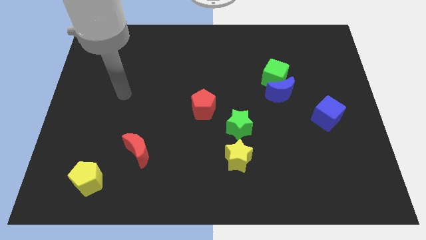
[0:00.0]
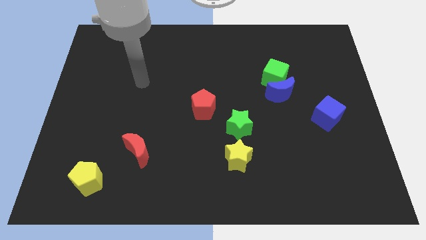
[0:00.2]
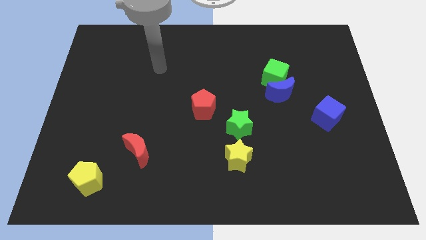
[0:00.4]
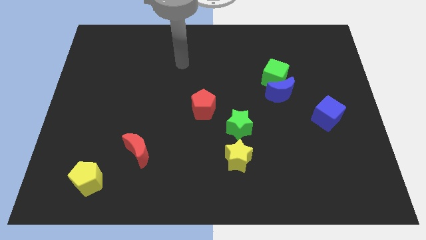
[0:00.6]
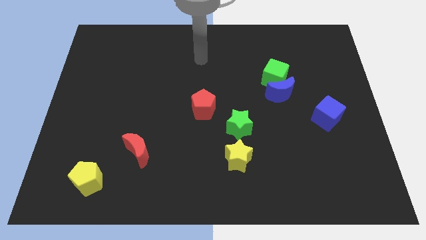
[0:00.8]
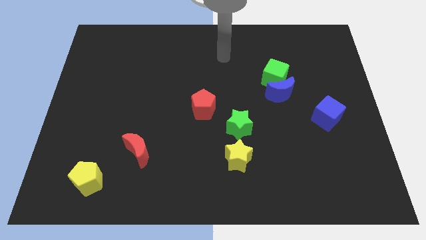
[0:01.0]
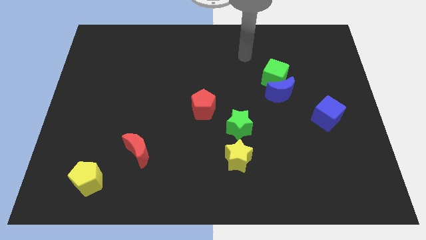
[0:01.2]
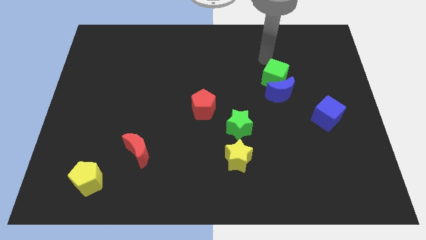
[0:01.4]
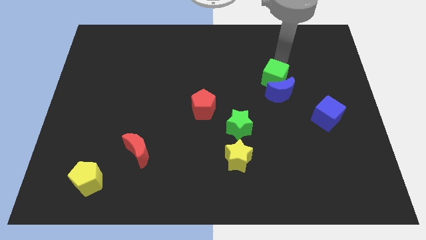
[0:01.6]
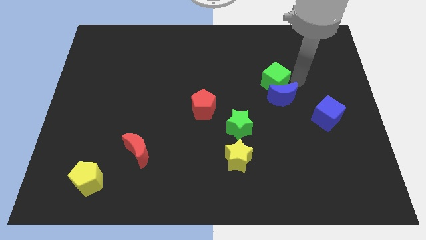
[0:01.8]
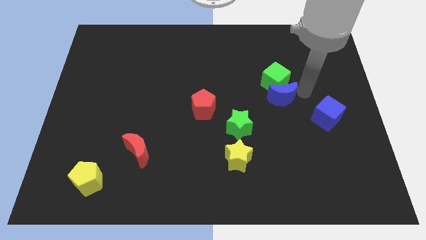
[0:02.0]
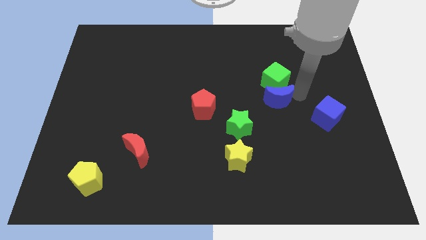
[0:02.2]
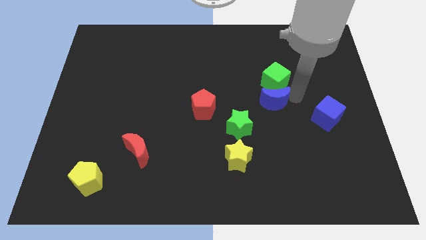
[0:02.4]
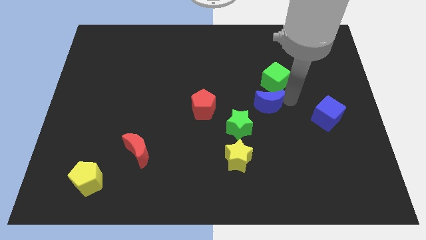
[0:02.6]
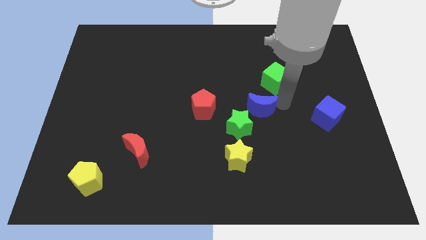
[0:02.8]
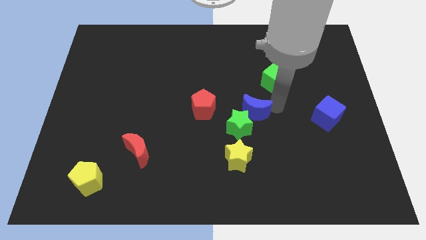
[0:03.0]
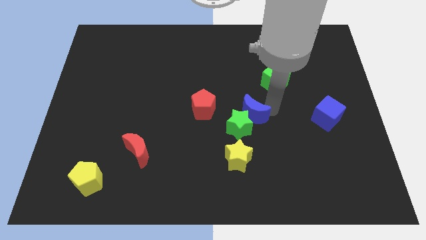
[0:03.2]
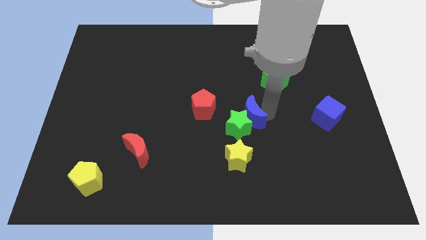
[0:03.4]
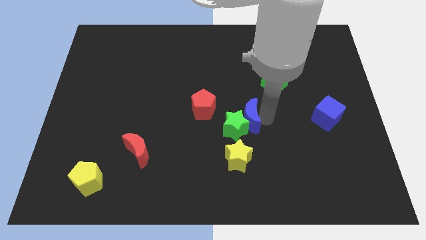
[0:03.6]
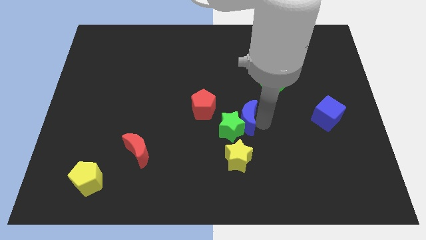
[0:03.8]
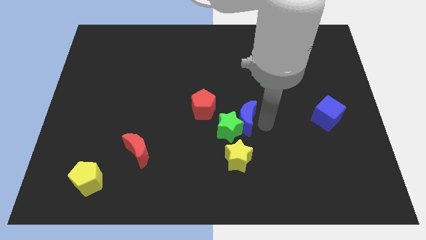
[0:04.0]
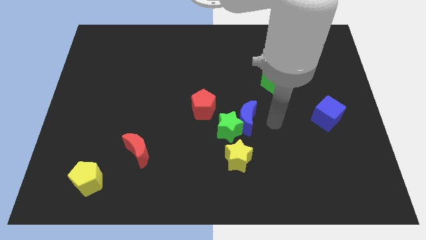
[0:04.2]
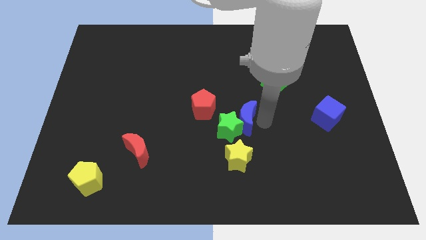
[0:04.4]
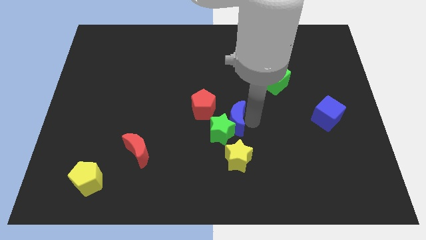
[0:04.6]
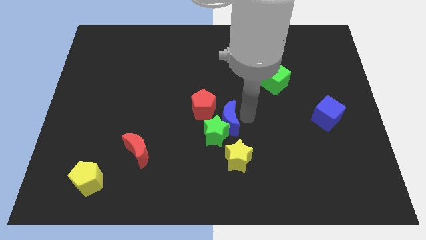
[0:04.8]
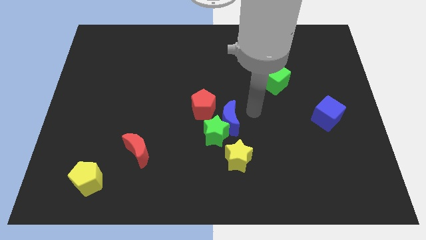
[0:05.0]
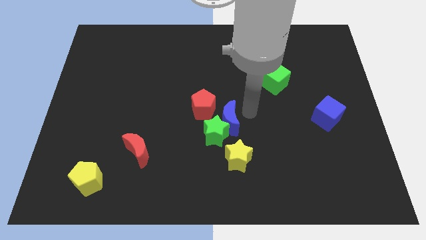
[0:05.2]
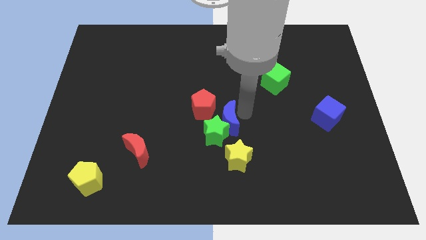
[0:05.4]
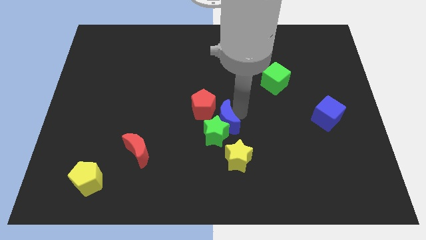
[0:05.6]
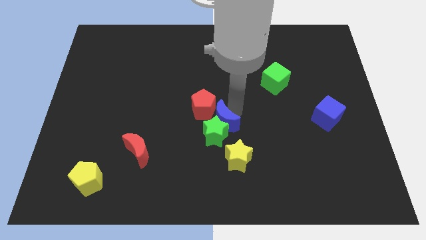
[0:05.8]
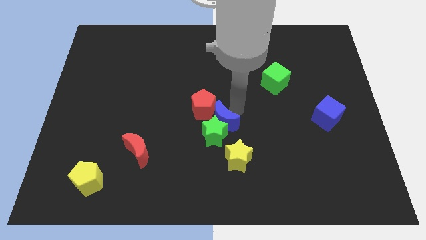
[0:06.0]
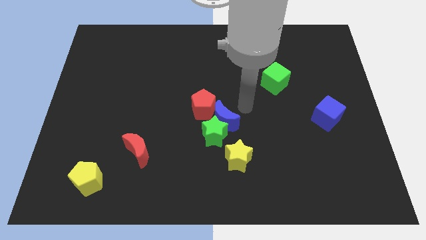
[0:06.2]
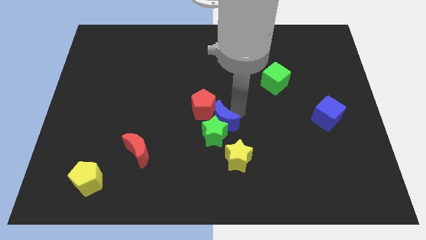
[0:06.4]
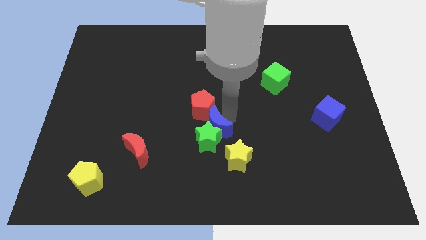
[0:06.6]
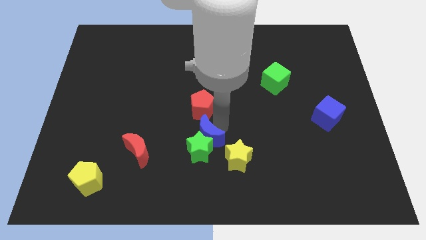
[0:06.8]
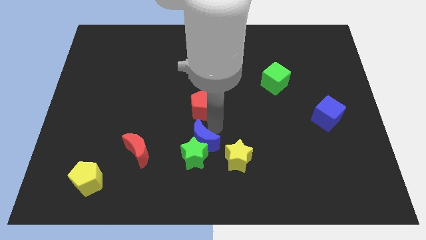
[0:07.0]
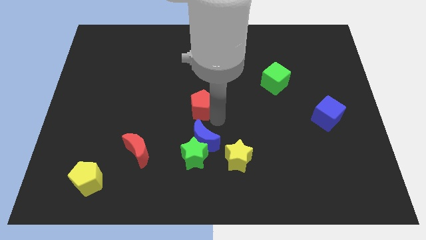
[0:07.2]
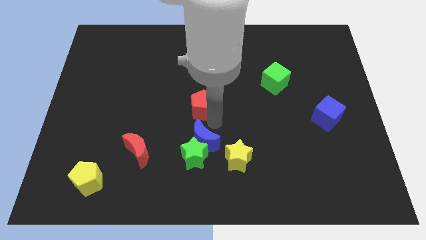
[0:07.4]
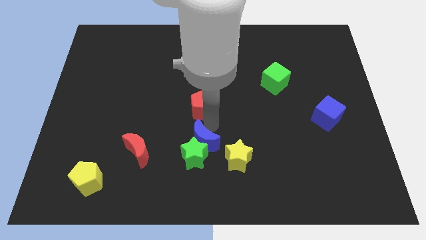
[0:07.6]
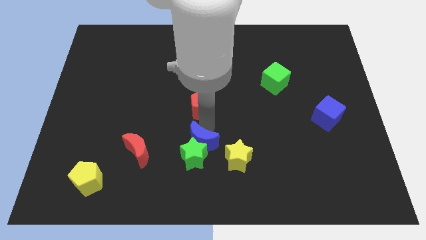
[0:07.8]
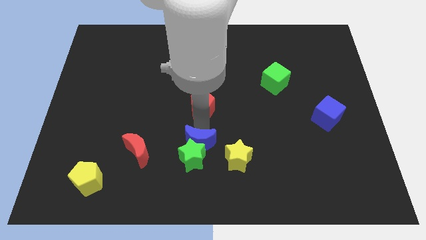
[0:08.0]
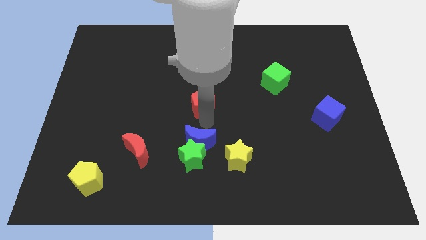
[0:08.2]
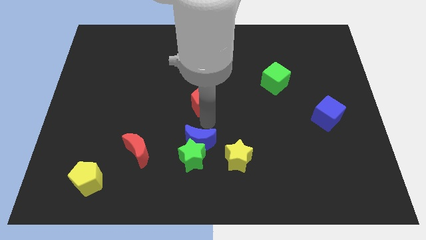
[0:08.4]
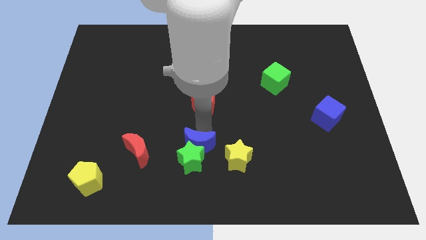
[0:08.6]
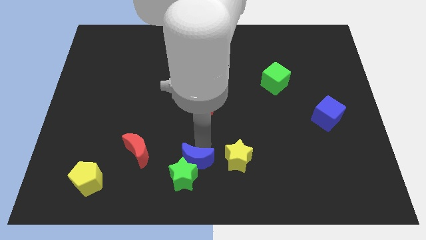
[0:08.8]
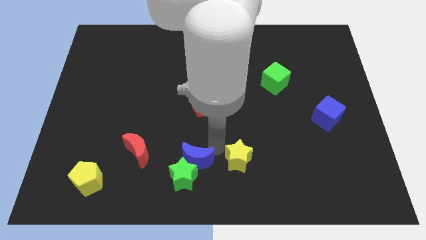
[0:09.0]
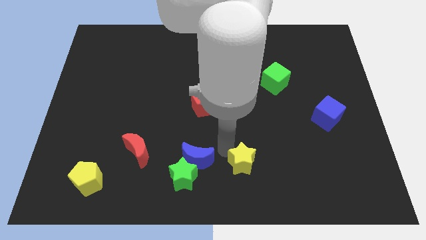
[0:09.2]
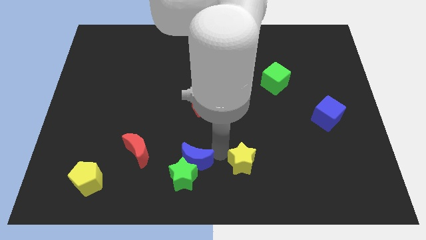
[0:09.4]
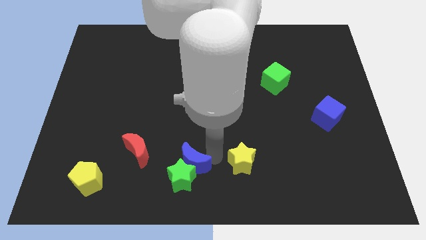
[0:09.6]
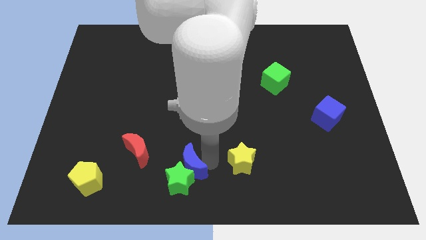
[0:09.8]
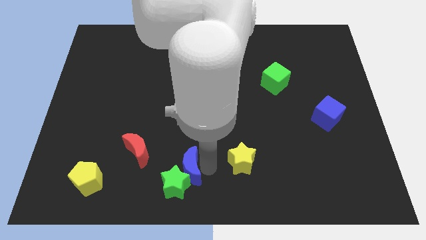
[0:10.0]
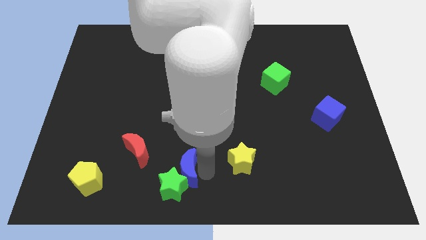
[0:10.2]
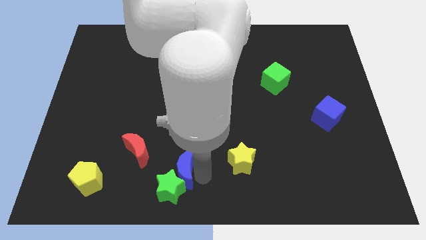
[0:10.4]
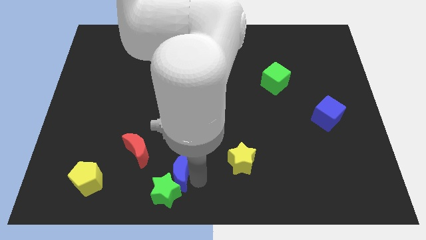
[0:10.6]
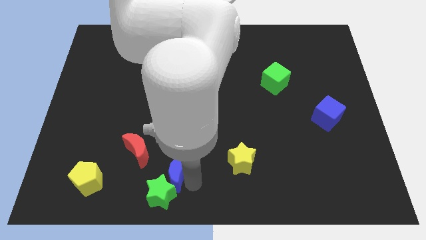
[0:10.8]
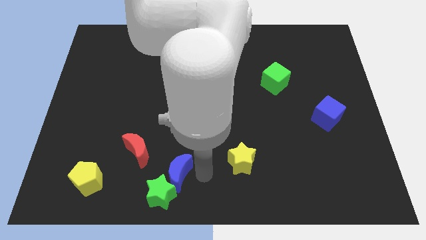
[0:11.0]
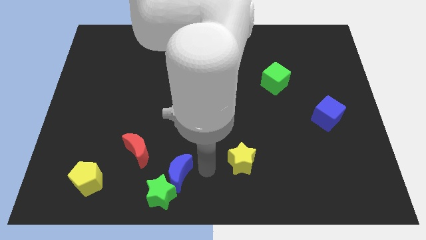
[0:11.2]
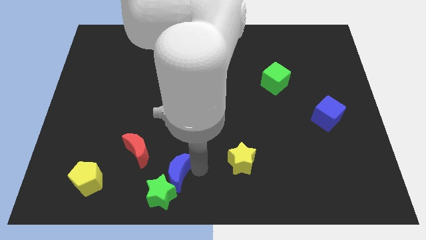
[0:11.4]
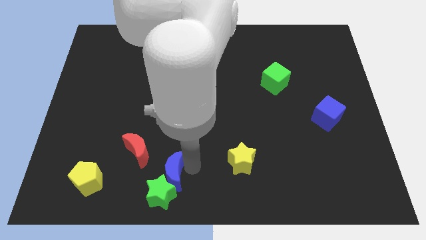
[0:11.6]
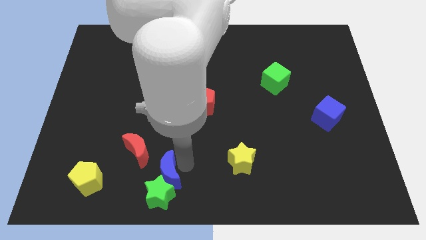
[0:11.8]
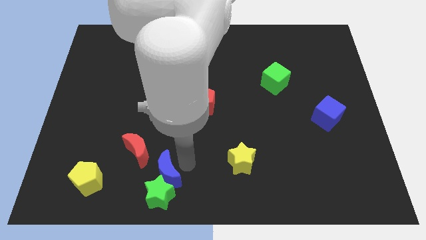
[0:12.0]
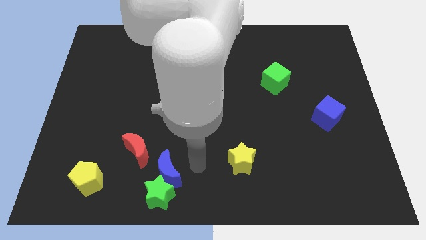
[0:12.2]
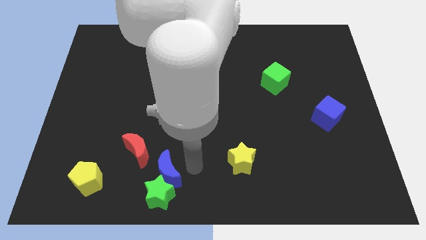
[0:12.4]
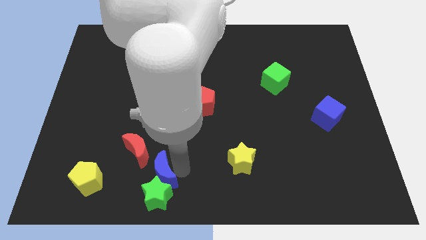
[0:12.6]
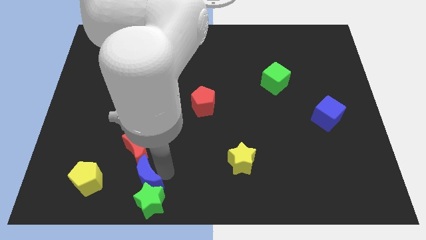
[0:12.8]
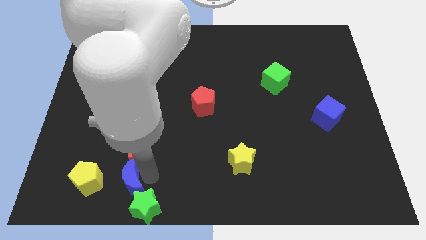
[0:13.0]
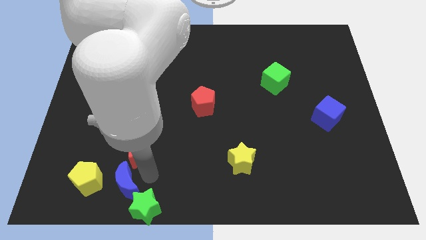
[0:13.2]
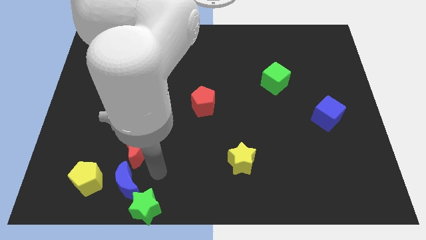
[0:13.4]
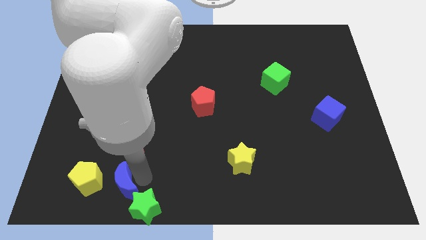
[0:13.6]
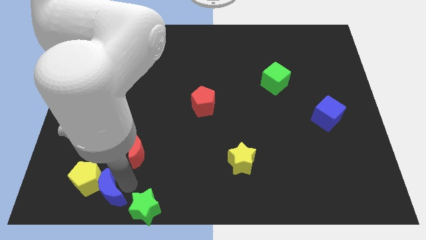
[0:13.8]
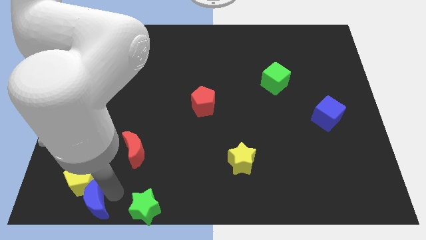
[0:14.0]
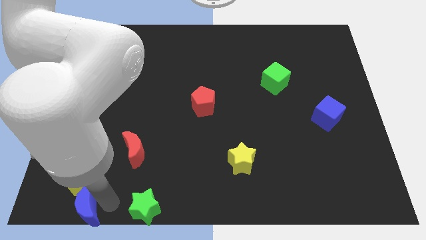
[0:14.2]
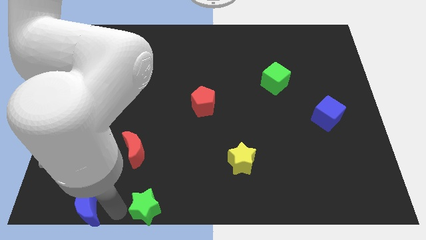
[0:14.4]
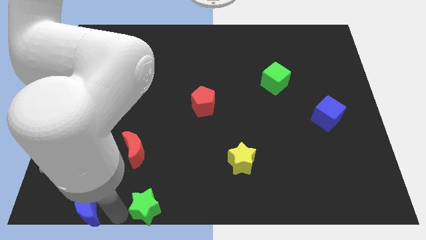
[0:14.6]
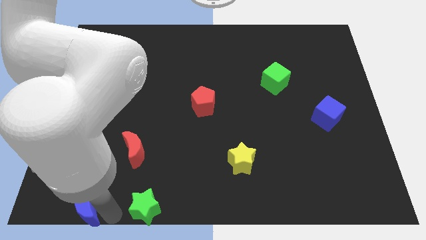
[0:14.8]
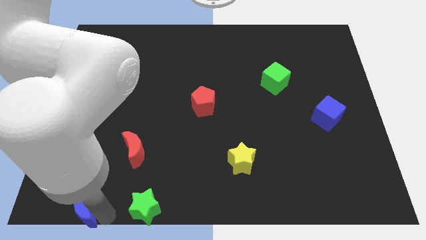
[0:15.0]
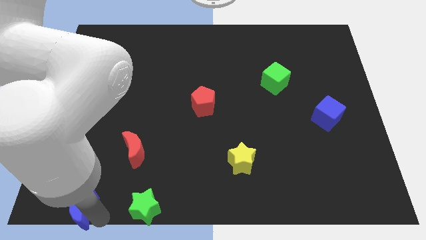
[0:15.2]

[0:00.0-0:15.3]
put the blue moon to the bottom left
